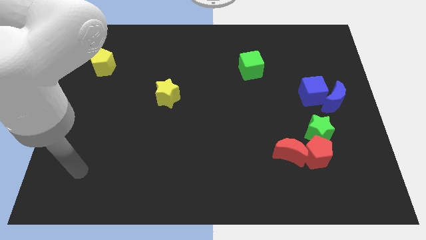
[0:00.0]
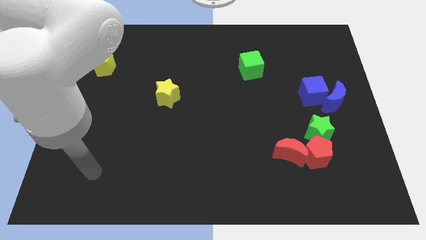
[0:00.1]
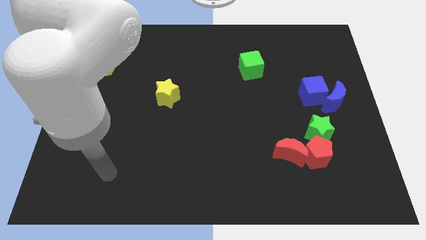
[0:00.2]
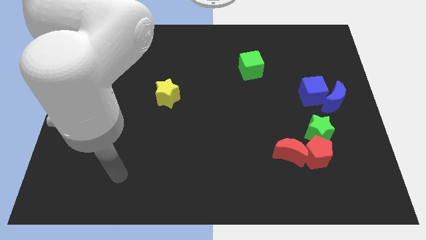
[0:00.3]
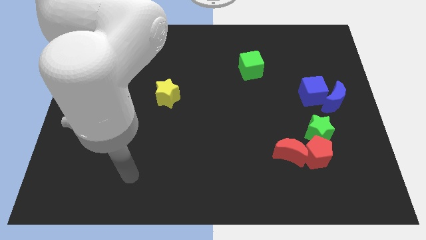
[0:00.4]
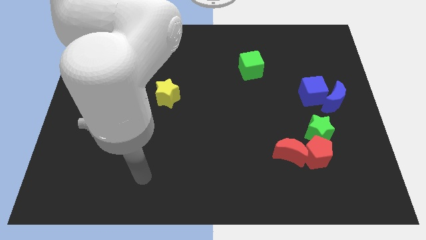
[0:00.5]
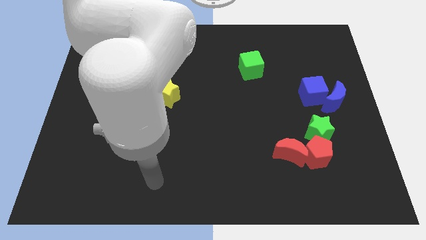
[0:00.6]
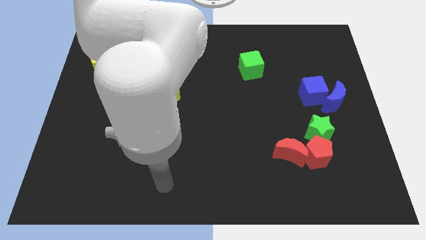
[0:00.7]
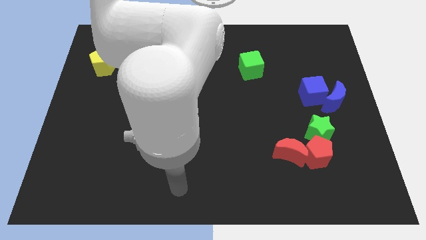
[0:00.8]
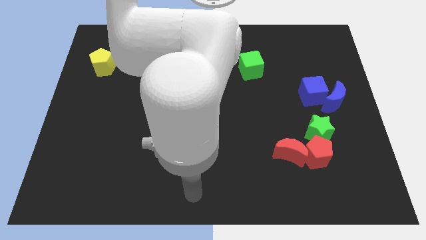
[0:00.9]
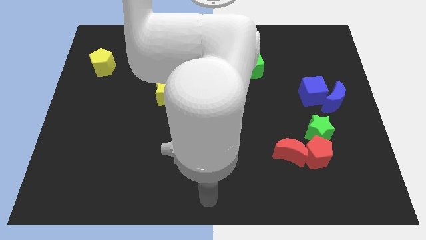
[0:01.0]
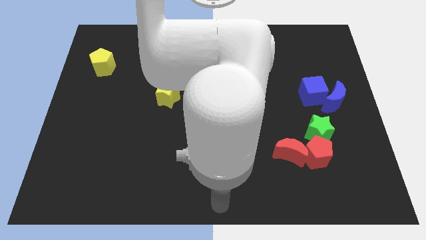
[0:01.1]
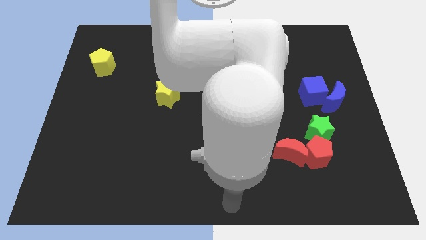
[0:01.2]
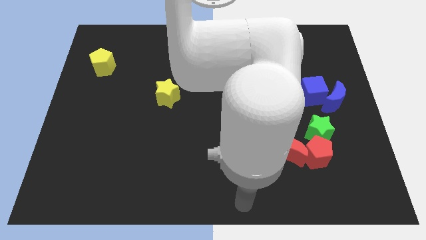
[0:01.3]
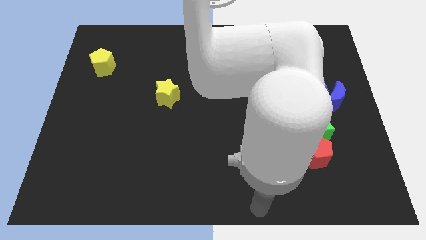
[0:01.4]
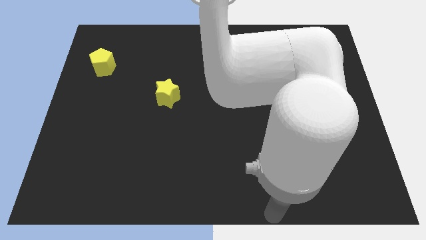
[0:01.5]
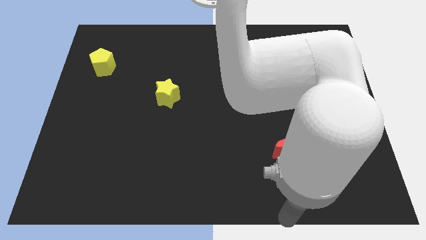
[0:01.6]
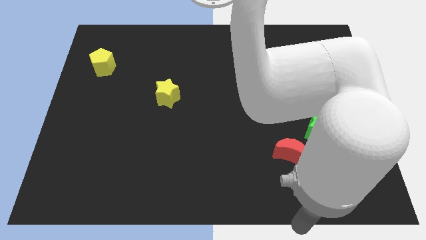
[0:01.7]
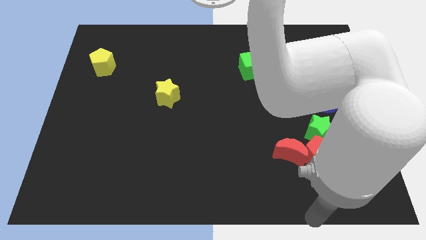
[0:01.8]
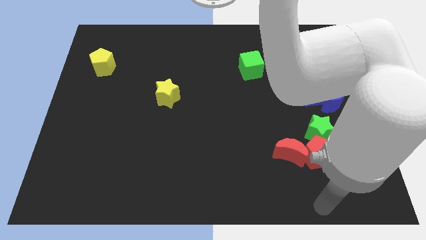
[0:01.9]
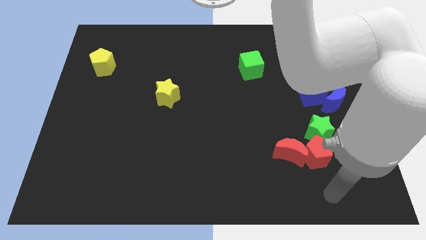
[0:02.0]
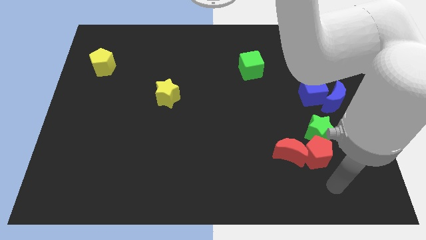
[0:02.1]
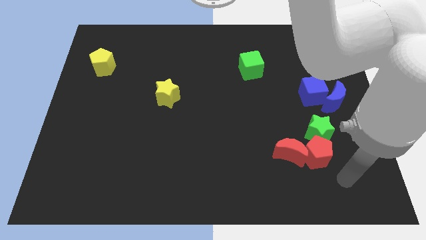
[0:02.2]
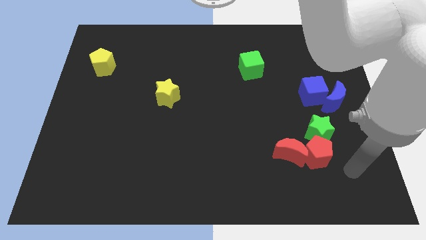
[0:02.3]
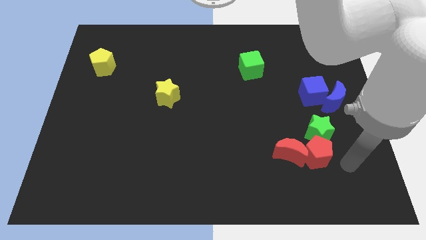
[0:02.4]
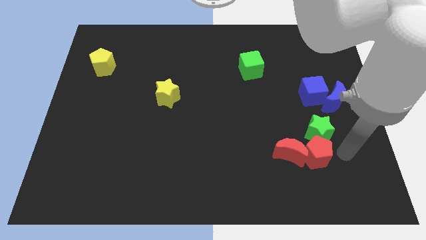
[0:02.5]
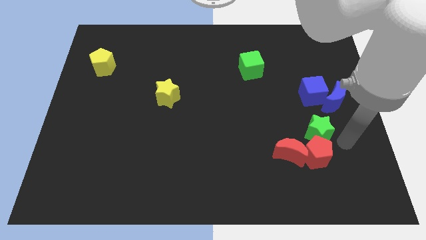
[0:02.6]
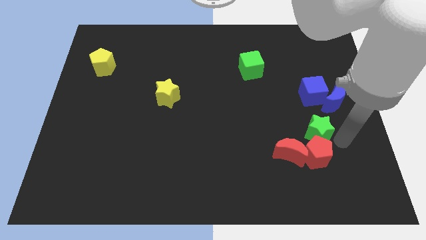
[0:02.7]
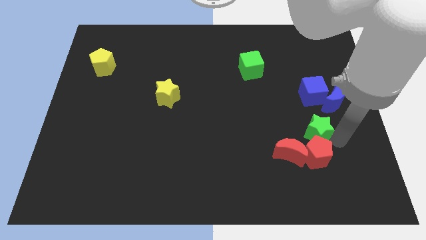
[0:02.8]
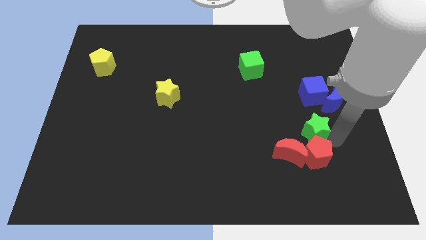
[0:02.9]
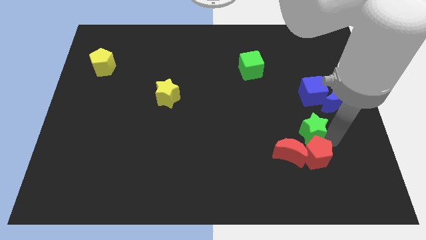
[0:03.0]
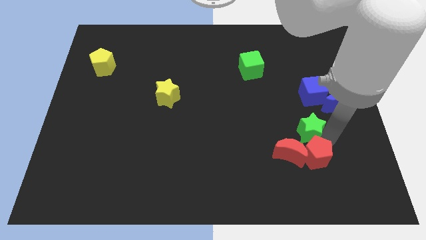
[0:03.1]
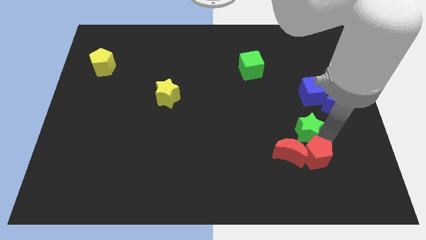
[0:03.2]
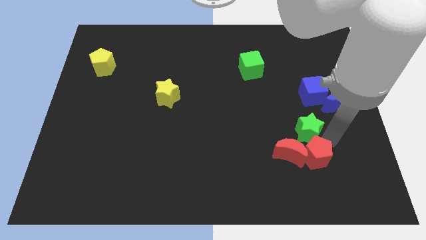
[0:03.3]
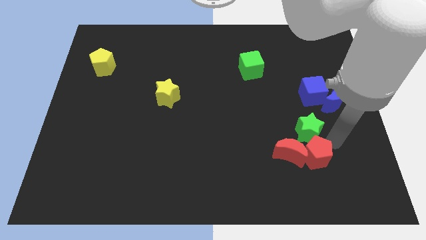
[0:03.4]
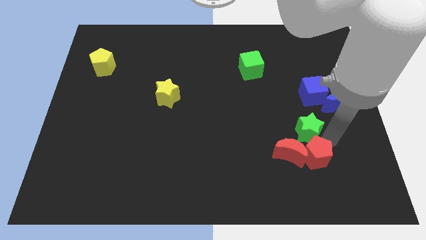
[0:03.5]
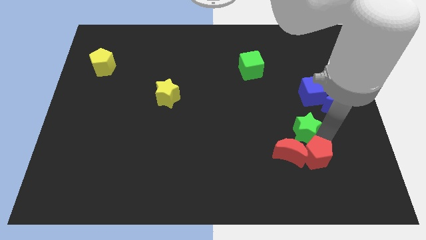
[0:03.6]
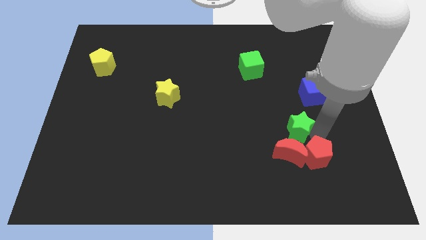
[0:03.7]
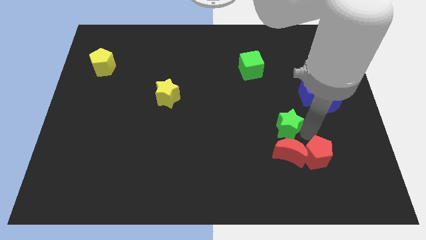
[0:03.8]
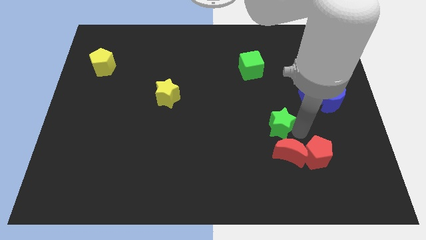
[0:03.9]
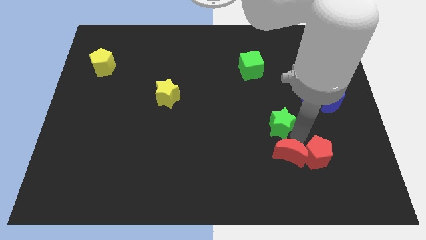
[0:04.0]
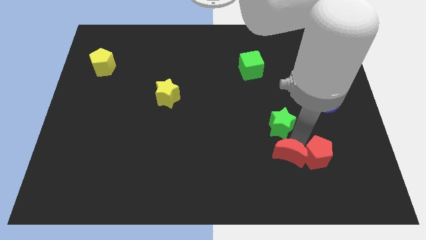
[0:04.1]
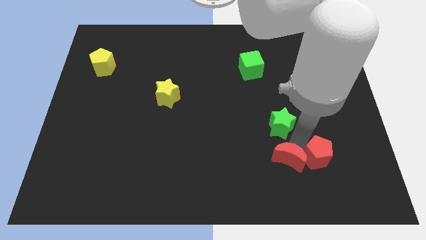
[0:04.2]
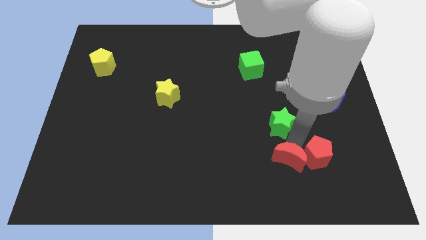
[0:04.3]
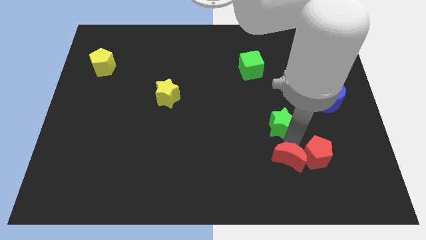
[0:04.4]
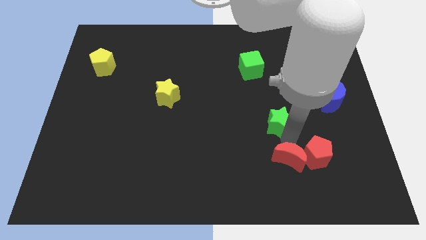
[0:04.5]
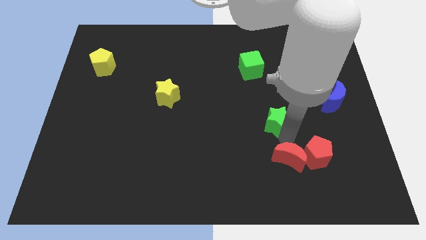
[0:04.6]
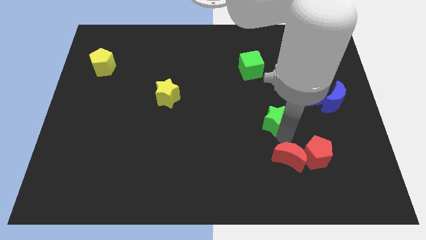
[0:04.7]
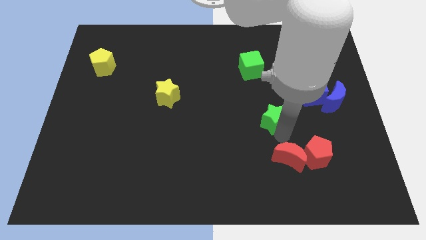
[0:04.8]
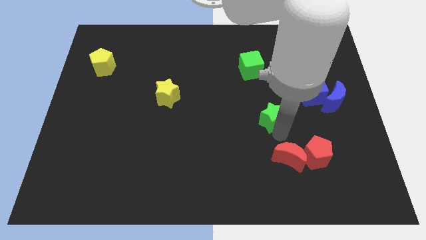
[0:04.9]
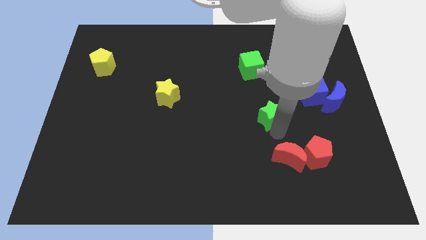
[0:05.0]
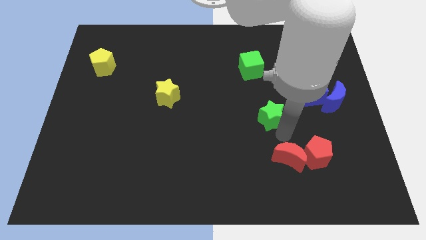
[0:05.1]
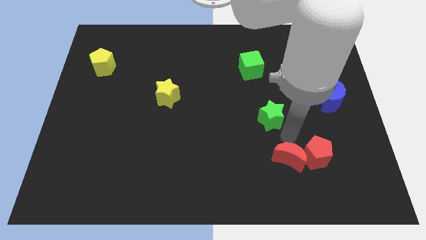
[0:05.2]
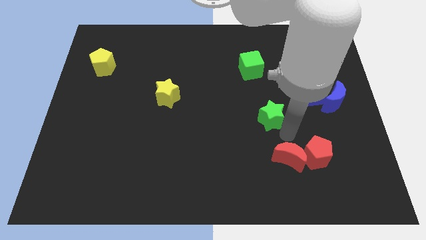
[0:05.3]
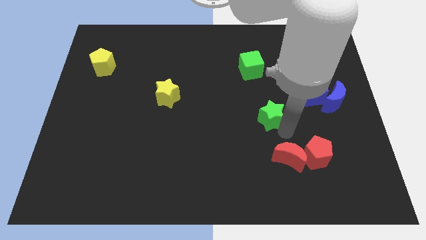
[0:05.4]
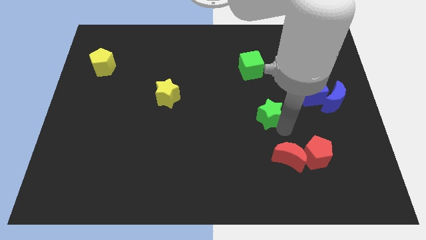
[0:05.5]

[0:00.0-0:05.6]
put the green star below the green cube

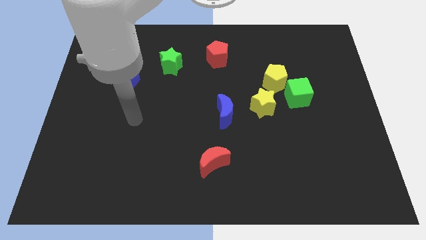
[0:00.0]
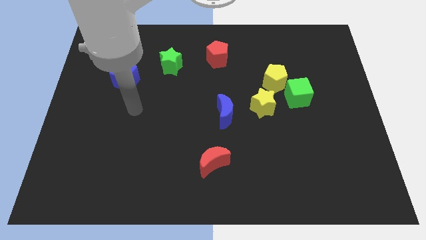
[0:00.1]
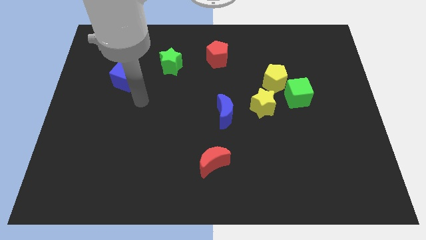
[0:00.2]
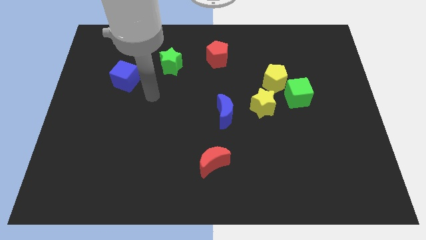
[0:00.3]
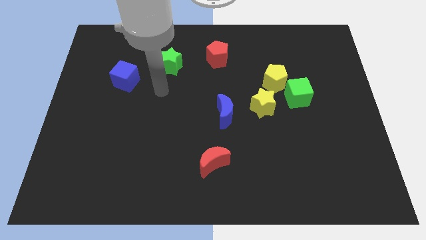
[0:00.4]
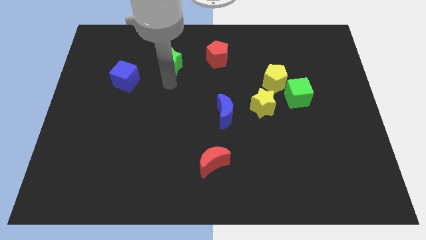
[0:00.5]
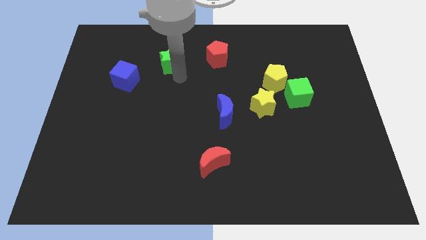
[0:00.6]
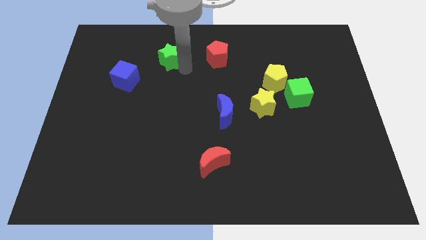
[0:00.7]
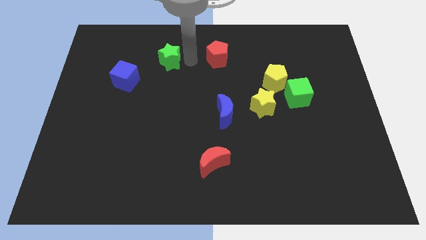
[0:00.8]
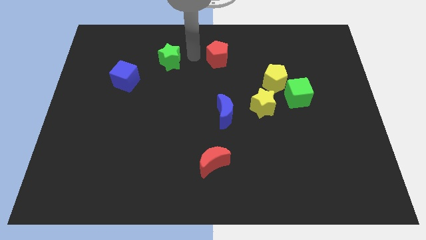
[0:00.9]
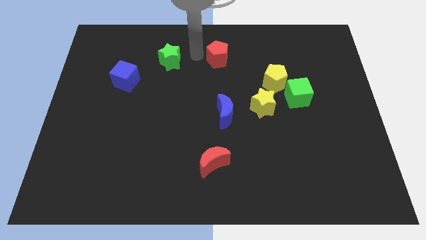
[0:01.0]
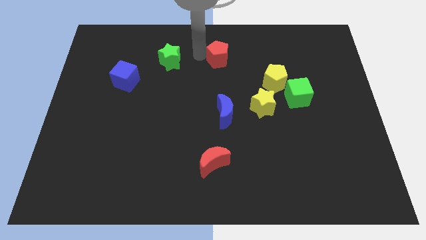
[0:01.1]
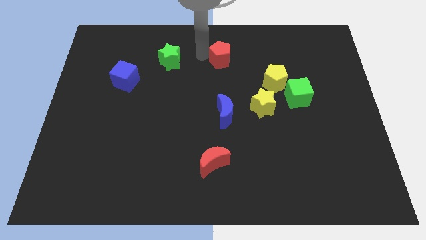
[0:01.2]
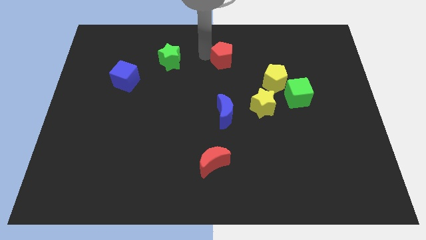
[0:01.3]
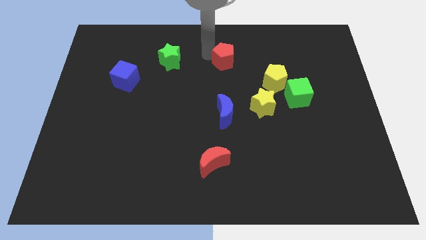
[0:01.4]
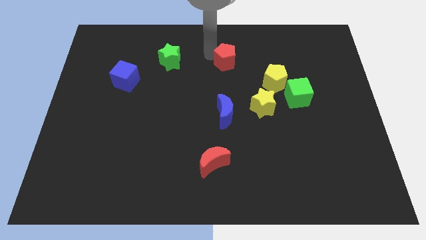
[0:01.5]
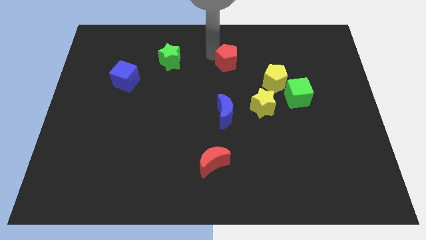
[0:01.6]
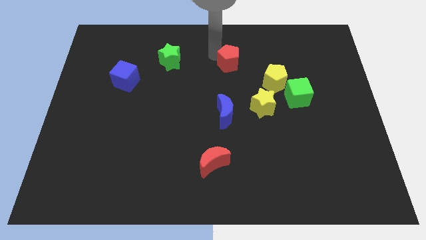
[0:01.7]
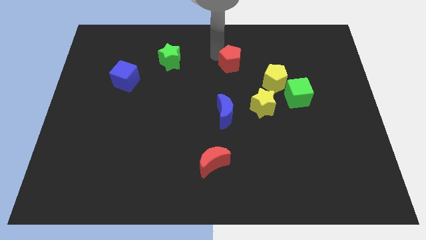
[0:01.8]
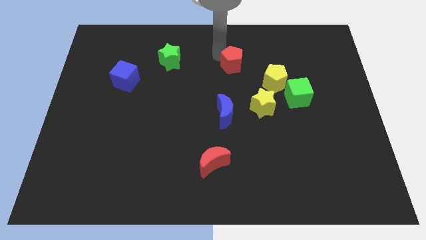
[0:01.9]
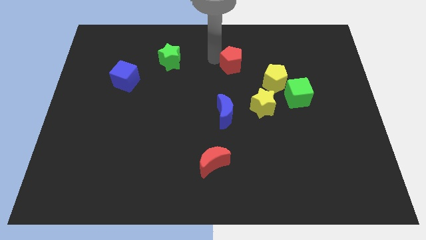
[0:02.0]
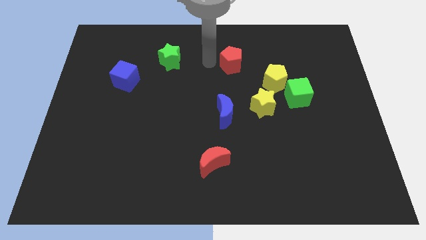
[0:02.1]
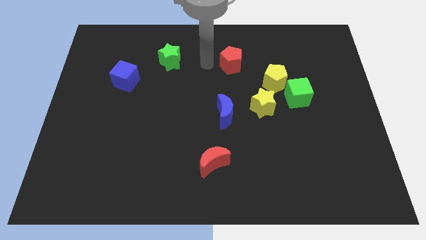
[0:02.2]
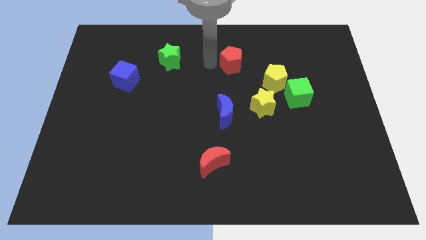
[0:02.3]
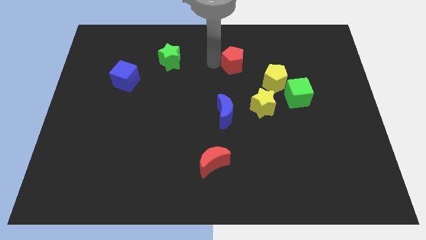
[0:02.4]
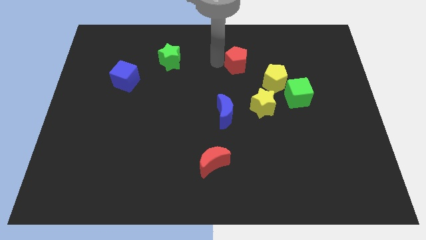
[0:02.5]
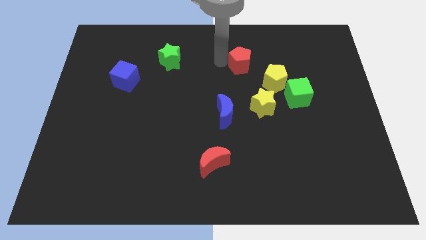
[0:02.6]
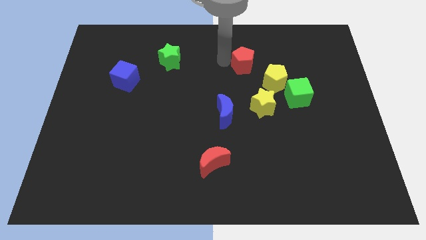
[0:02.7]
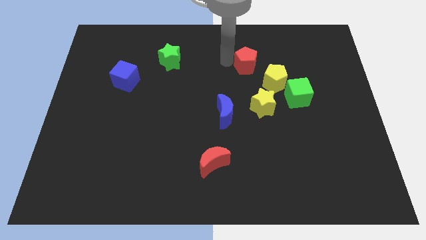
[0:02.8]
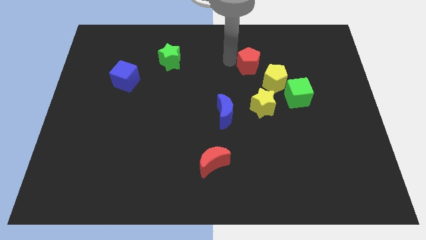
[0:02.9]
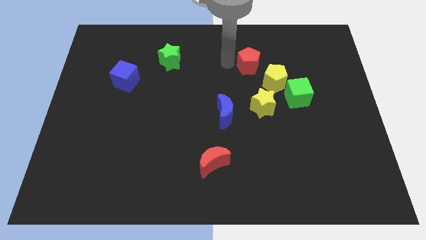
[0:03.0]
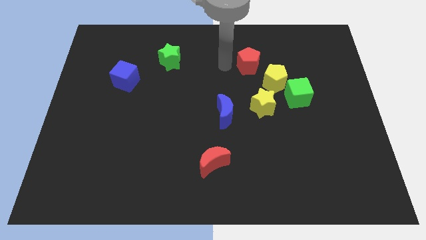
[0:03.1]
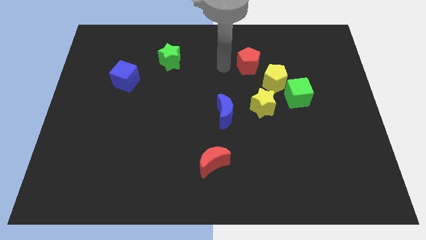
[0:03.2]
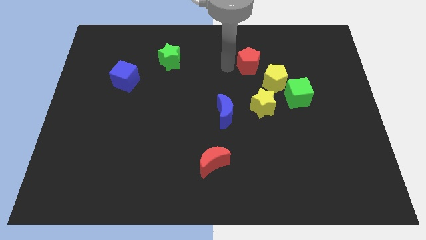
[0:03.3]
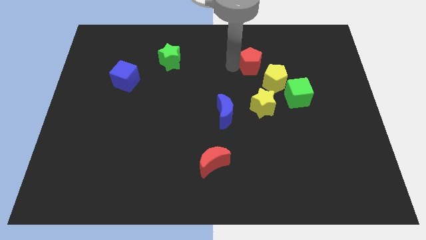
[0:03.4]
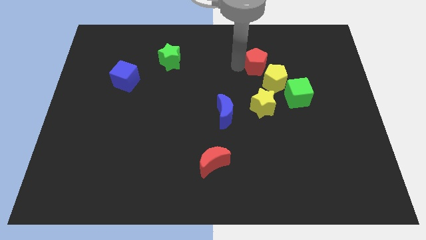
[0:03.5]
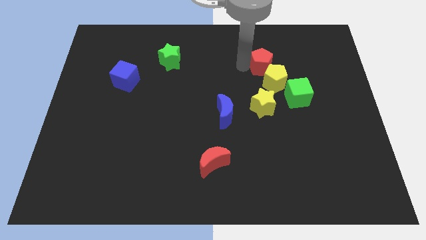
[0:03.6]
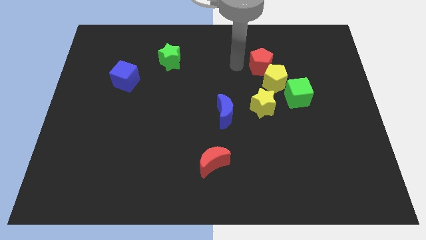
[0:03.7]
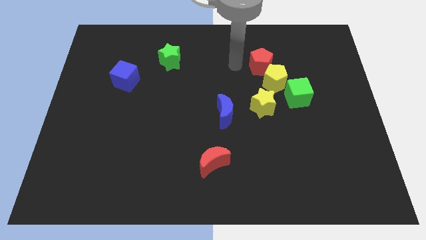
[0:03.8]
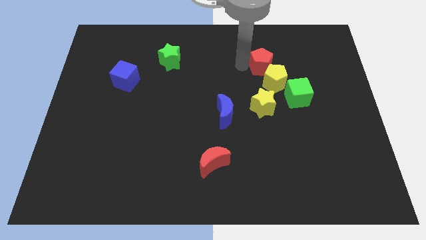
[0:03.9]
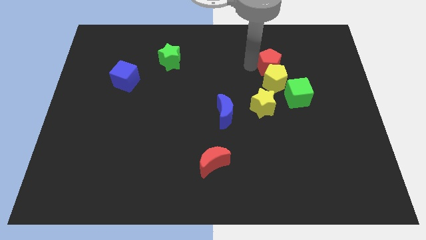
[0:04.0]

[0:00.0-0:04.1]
move the red pentagon to the top right side of the yellow pentagon
